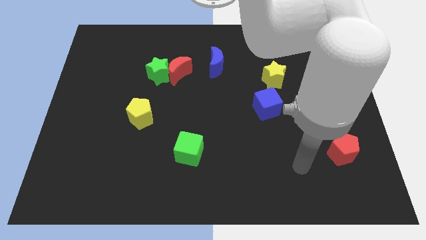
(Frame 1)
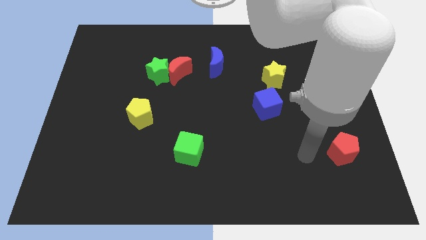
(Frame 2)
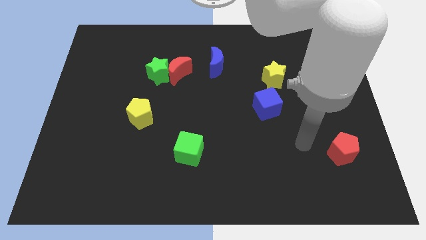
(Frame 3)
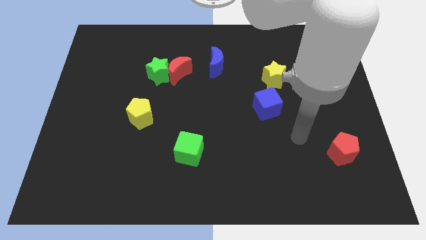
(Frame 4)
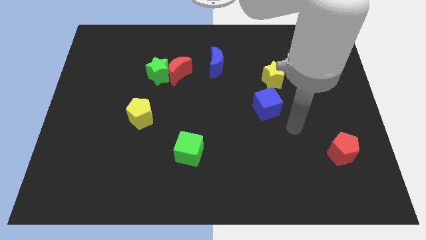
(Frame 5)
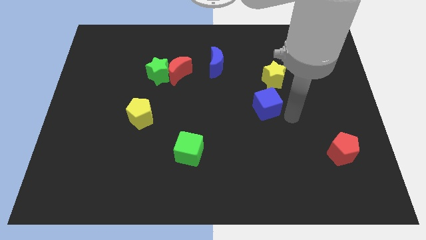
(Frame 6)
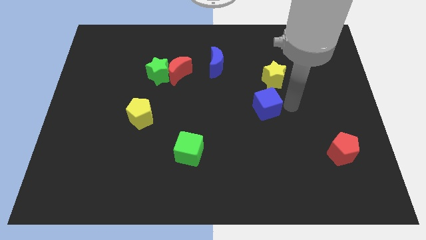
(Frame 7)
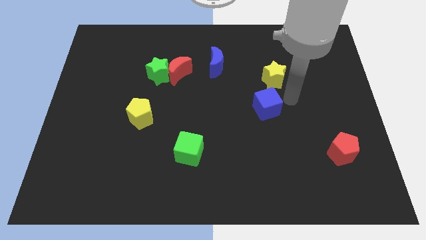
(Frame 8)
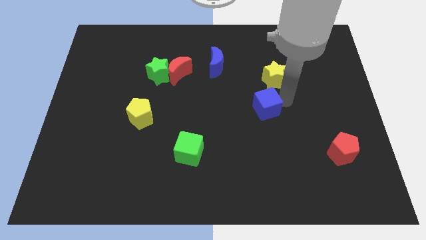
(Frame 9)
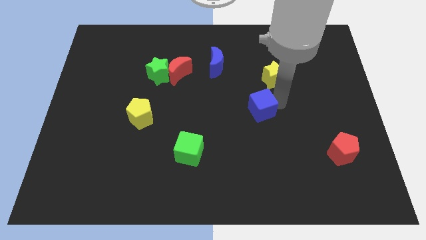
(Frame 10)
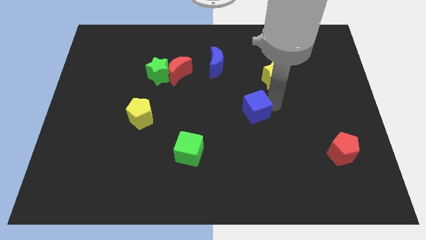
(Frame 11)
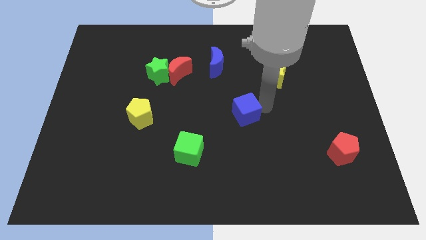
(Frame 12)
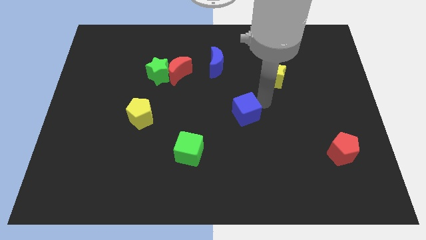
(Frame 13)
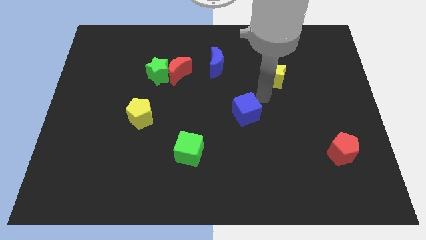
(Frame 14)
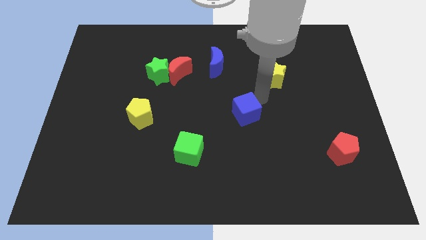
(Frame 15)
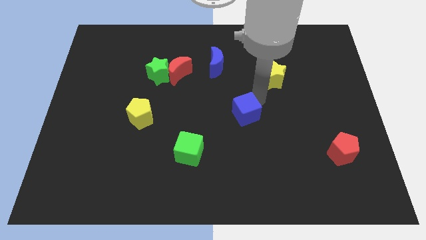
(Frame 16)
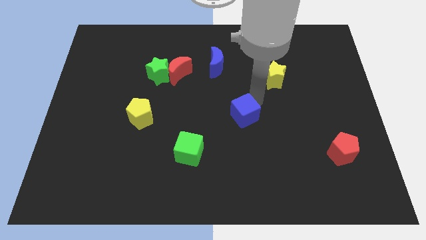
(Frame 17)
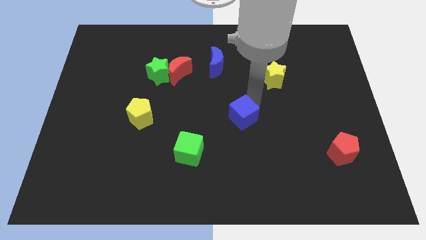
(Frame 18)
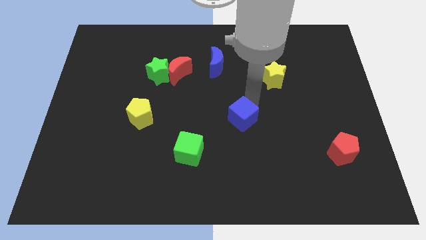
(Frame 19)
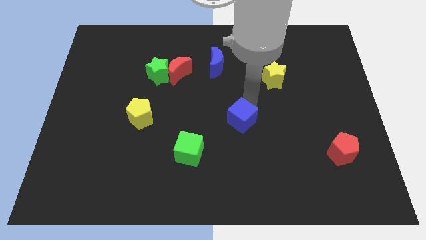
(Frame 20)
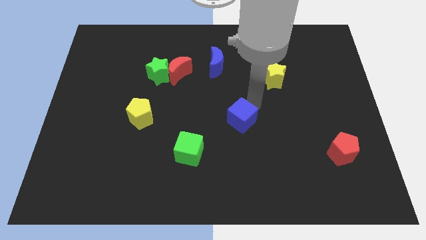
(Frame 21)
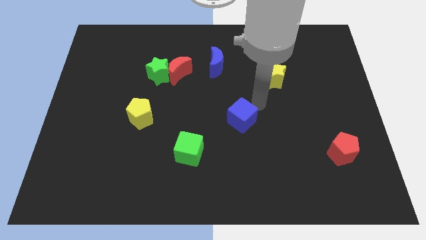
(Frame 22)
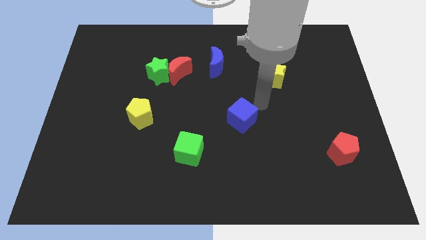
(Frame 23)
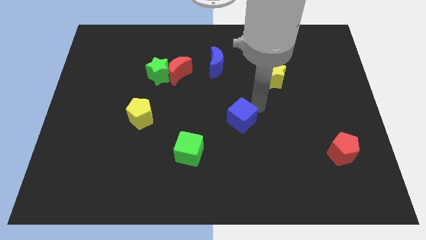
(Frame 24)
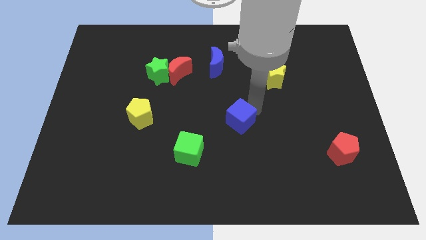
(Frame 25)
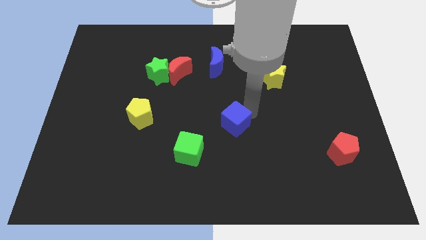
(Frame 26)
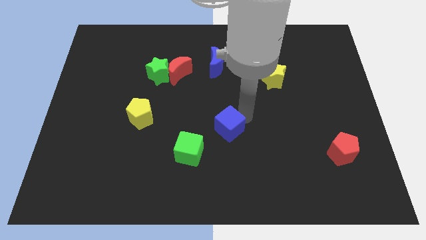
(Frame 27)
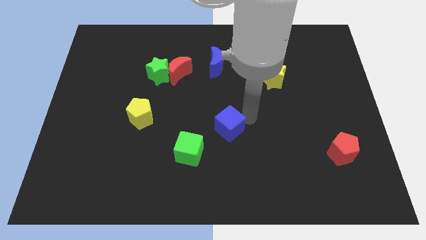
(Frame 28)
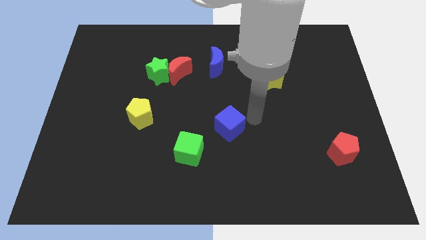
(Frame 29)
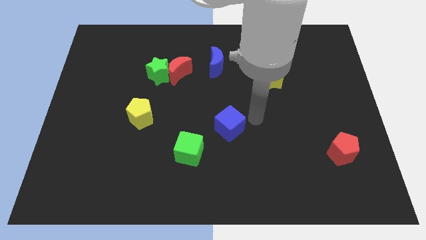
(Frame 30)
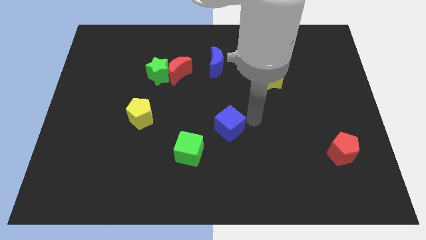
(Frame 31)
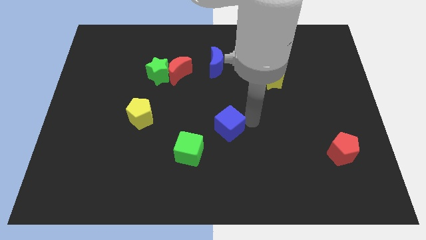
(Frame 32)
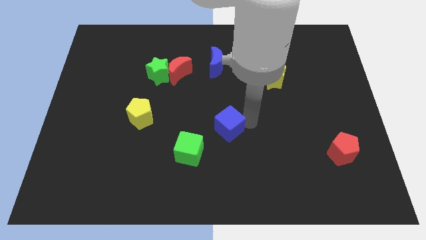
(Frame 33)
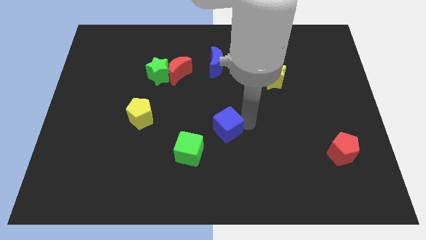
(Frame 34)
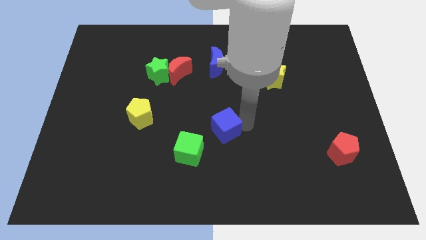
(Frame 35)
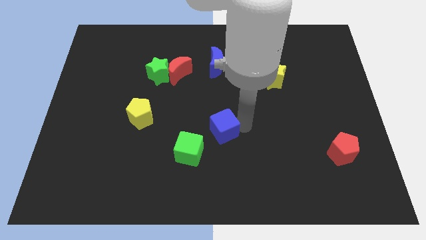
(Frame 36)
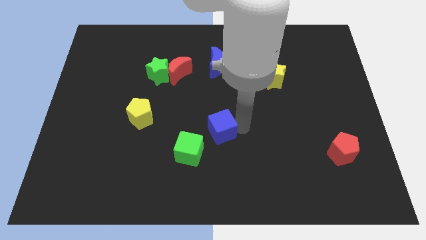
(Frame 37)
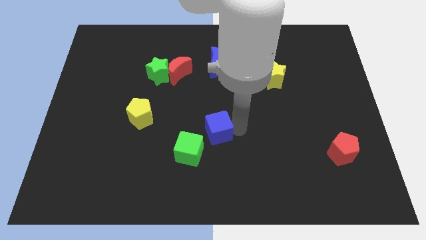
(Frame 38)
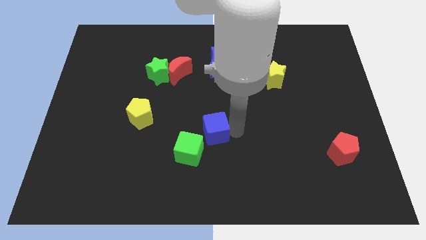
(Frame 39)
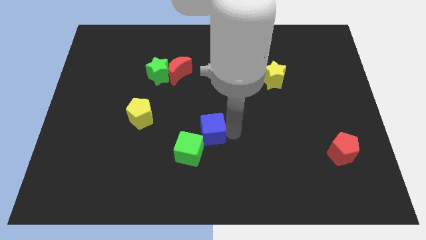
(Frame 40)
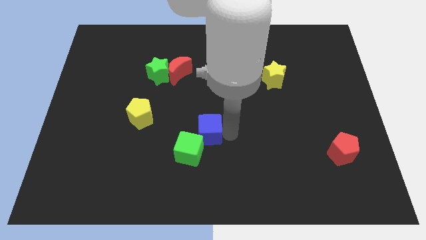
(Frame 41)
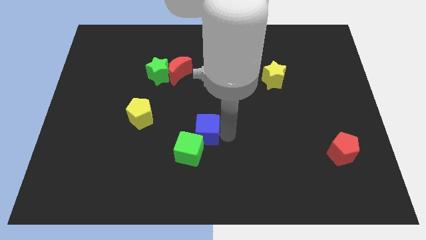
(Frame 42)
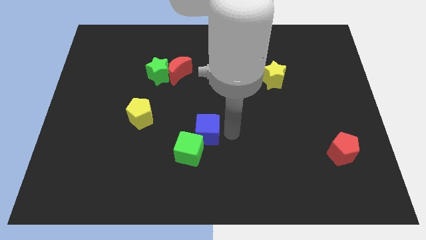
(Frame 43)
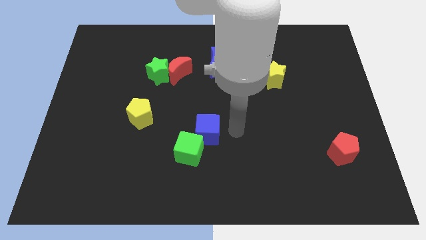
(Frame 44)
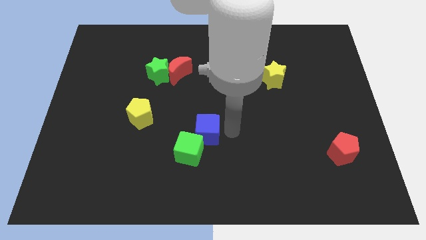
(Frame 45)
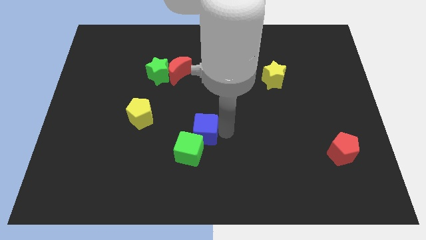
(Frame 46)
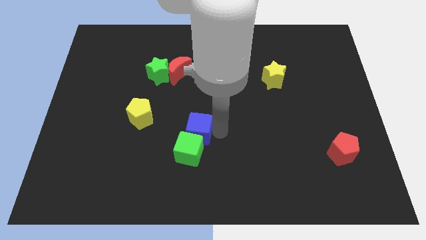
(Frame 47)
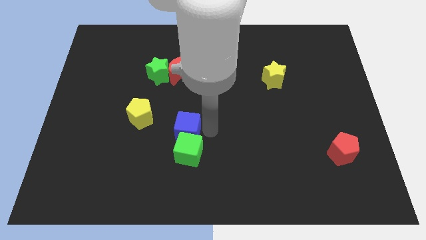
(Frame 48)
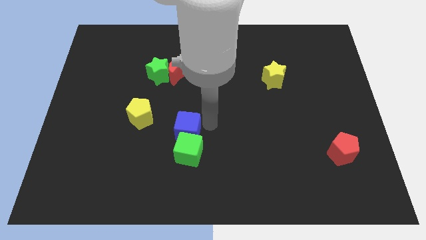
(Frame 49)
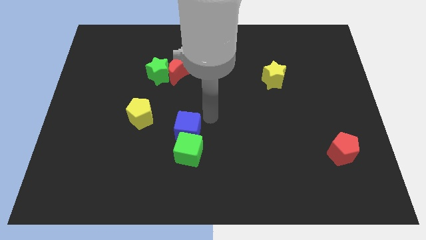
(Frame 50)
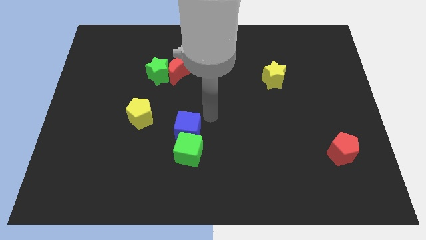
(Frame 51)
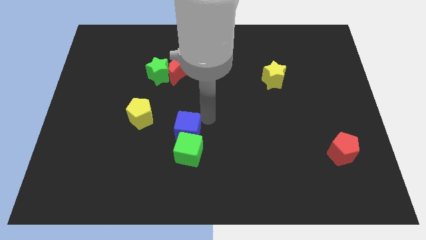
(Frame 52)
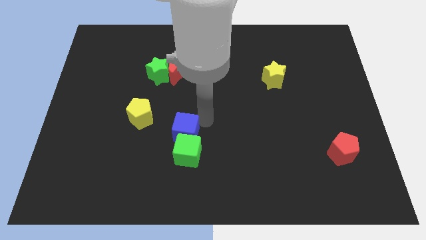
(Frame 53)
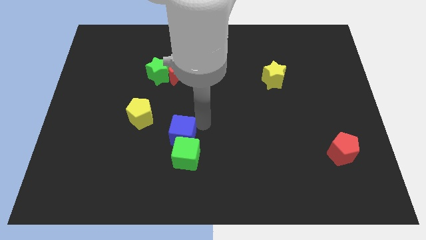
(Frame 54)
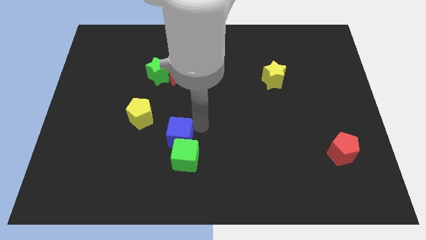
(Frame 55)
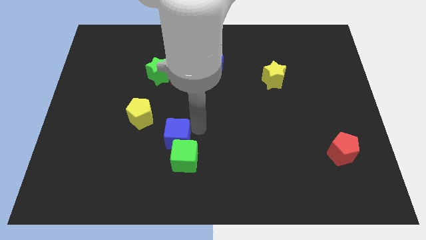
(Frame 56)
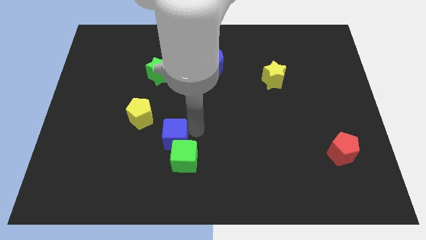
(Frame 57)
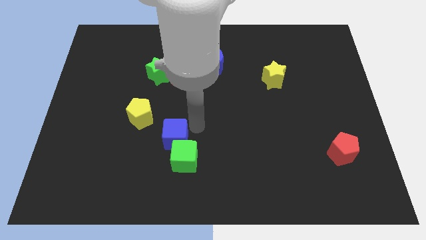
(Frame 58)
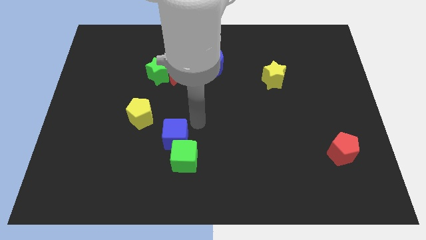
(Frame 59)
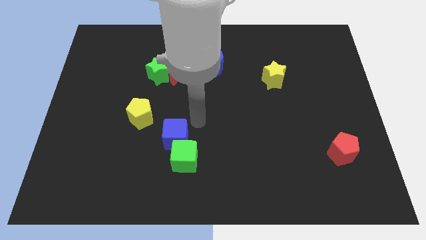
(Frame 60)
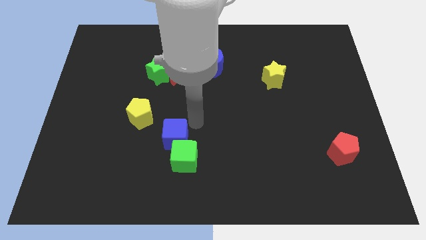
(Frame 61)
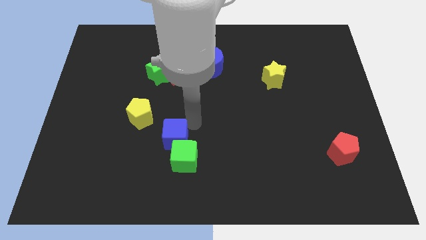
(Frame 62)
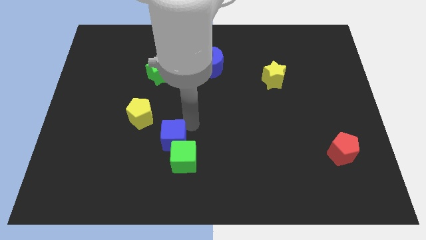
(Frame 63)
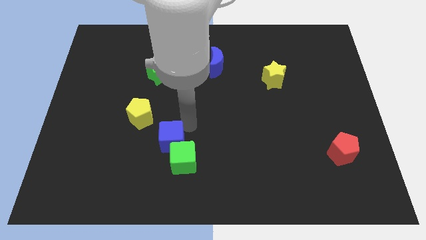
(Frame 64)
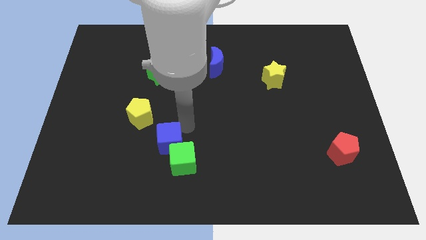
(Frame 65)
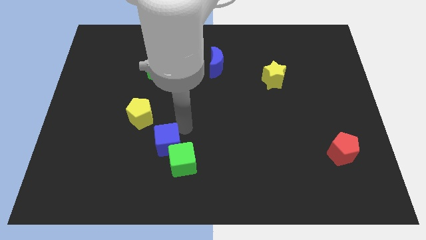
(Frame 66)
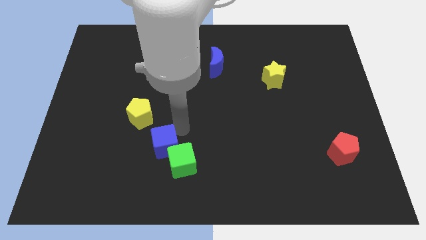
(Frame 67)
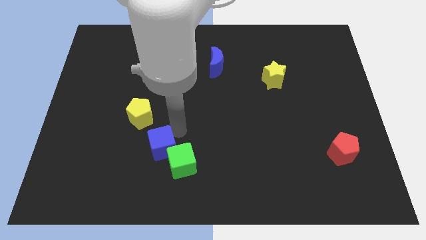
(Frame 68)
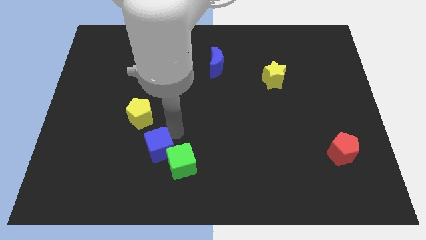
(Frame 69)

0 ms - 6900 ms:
push the blue cube to the bottom of the yellow pentagon

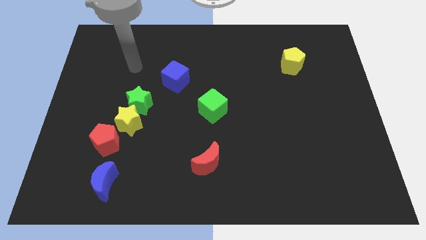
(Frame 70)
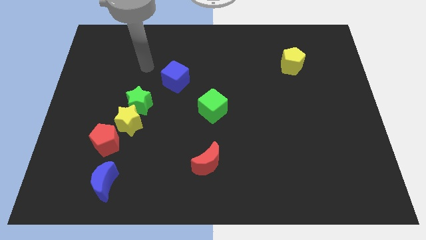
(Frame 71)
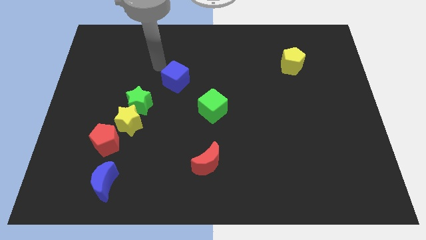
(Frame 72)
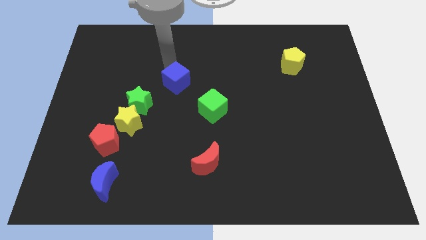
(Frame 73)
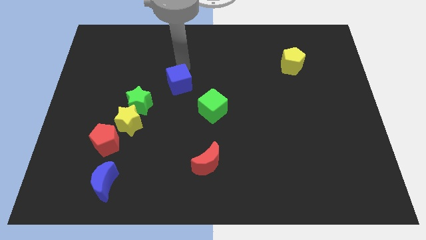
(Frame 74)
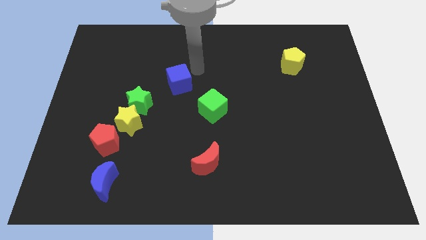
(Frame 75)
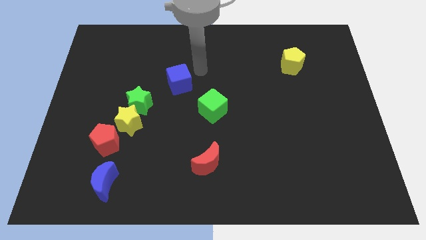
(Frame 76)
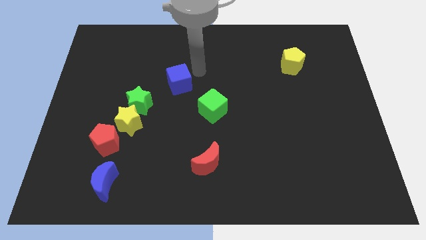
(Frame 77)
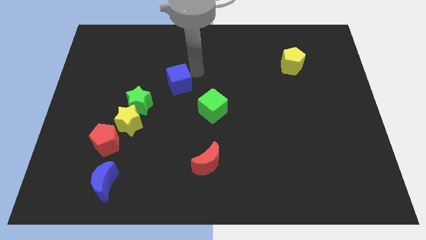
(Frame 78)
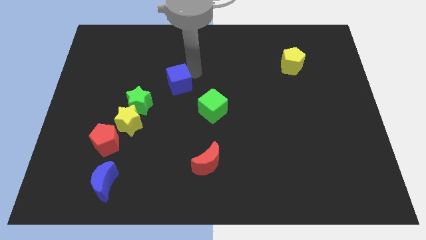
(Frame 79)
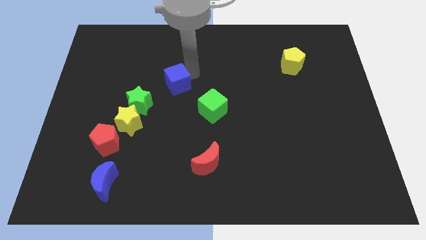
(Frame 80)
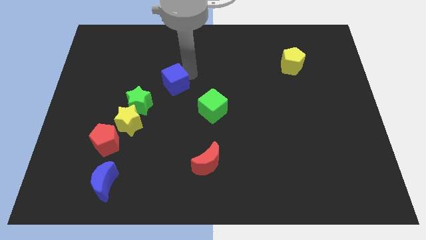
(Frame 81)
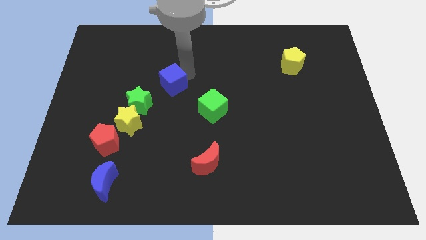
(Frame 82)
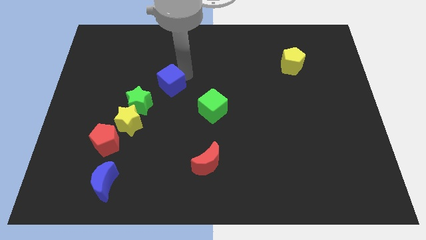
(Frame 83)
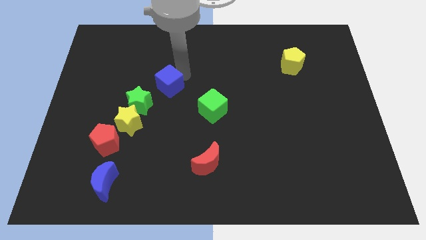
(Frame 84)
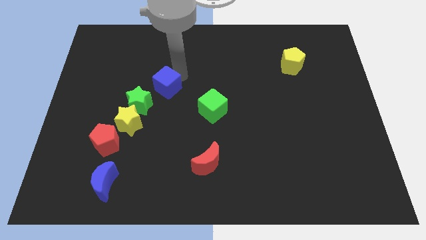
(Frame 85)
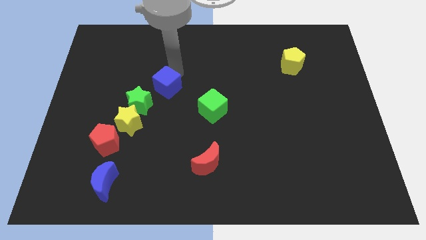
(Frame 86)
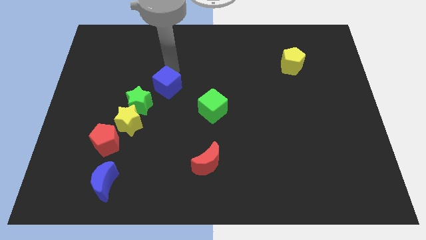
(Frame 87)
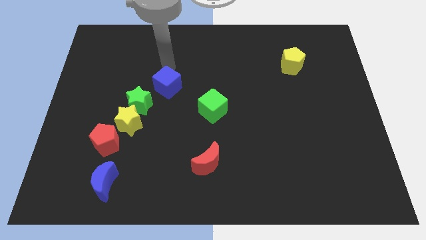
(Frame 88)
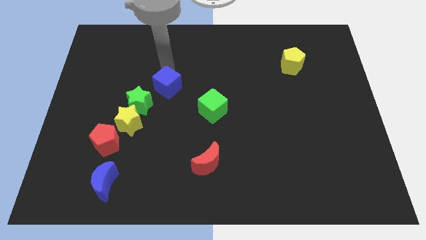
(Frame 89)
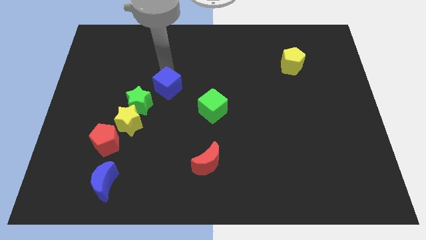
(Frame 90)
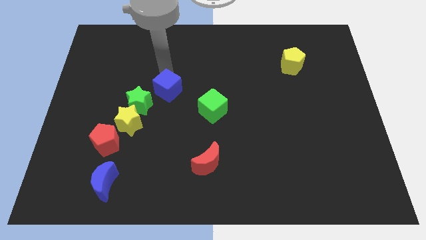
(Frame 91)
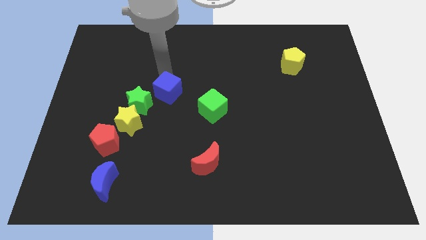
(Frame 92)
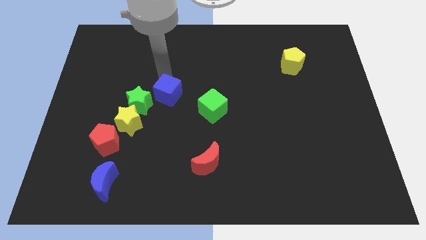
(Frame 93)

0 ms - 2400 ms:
push the blue cube left of the green cube
